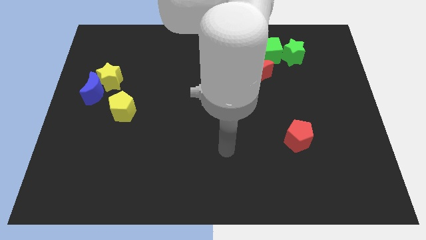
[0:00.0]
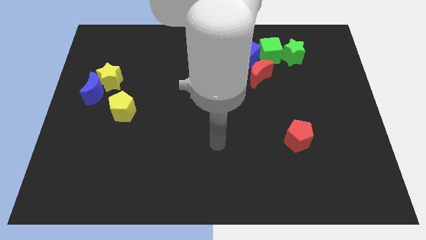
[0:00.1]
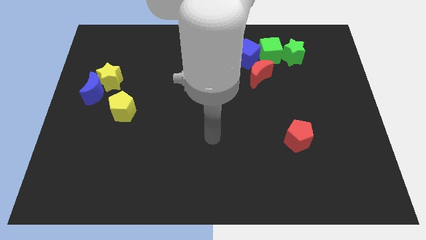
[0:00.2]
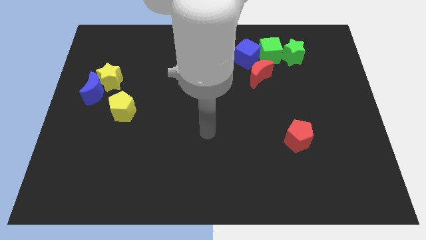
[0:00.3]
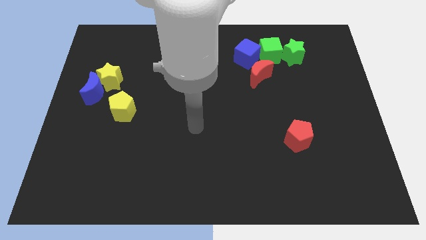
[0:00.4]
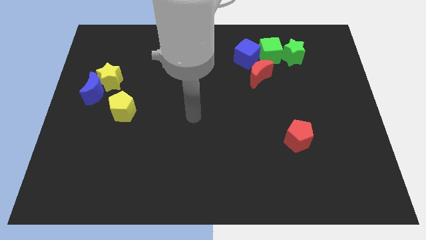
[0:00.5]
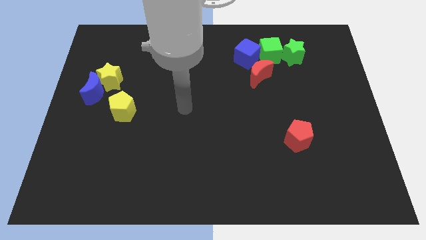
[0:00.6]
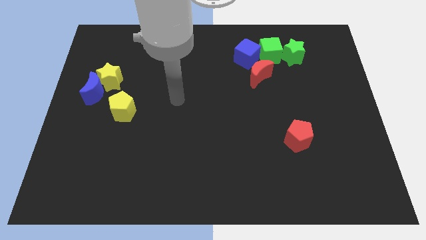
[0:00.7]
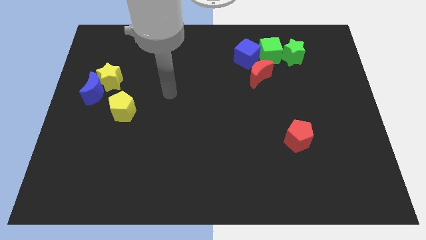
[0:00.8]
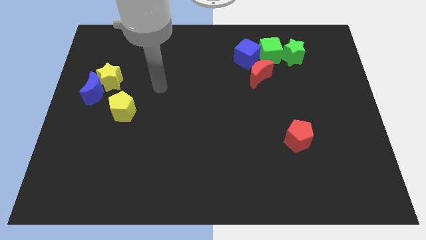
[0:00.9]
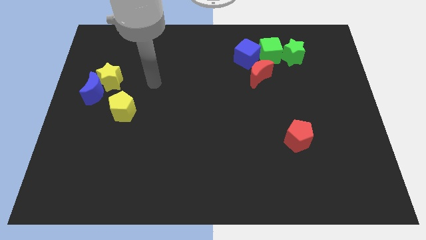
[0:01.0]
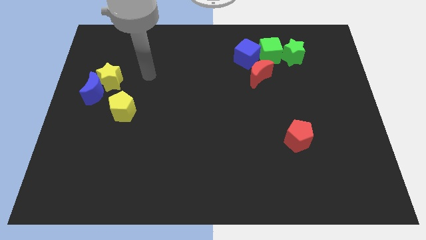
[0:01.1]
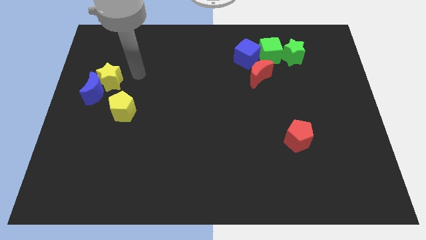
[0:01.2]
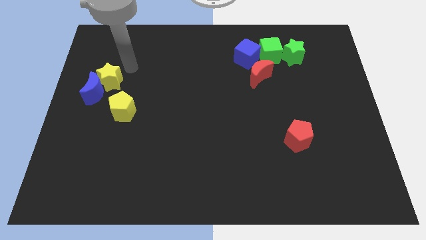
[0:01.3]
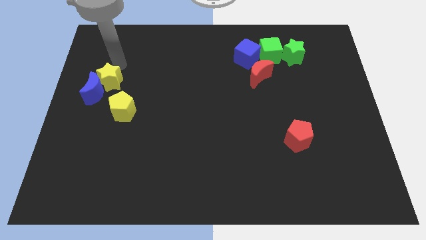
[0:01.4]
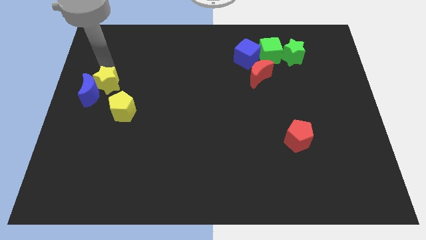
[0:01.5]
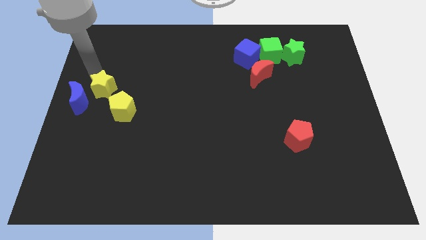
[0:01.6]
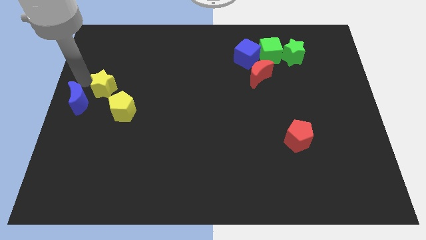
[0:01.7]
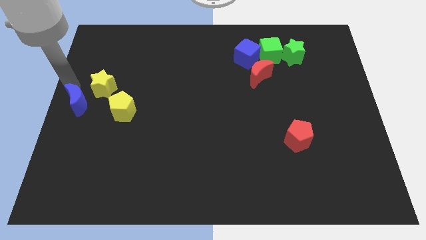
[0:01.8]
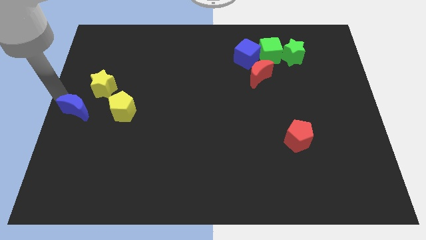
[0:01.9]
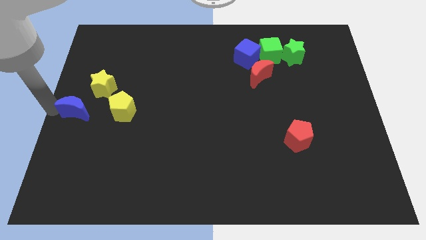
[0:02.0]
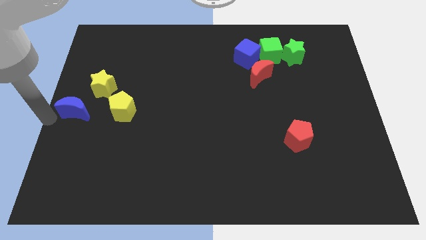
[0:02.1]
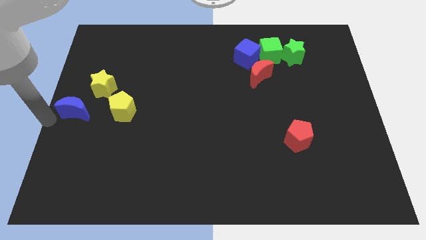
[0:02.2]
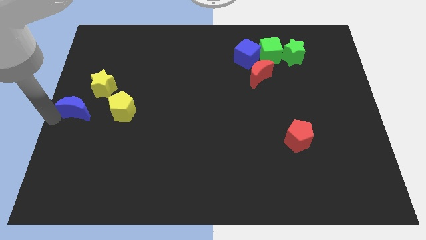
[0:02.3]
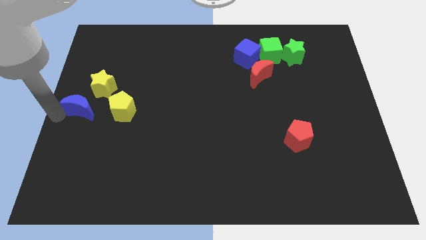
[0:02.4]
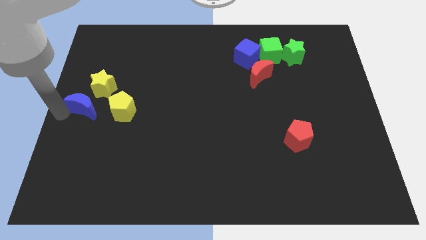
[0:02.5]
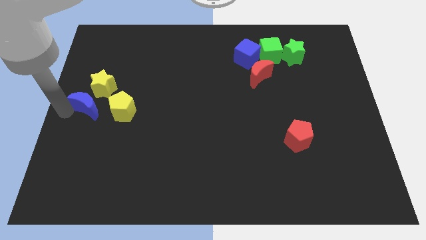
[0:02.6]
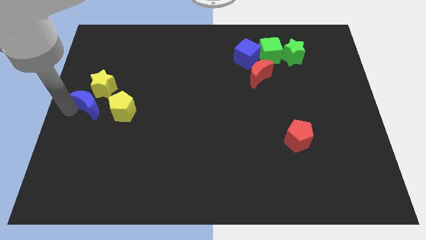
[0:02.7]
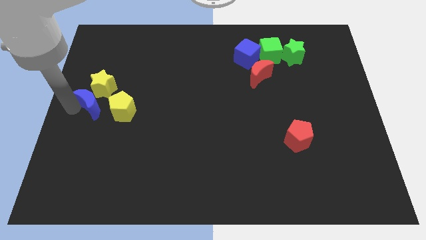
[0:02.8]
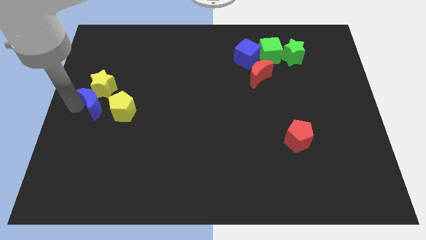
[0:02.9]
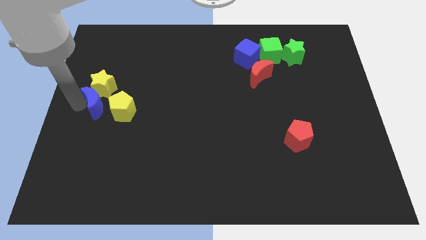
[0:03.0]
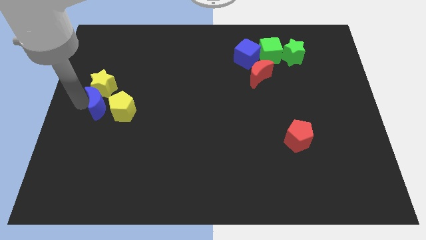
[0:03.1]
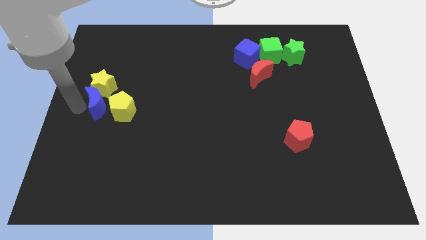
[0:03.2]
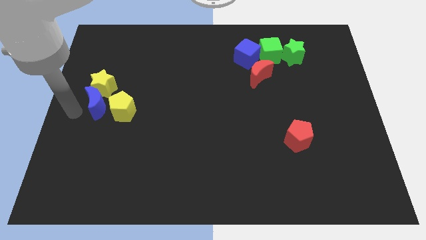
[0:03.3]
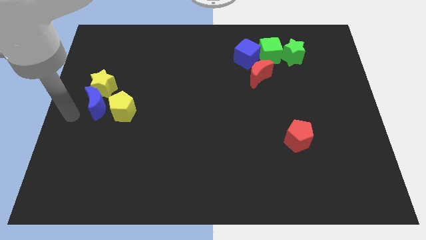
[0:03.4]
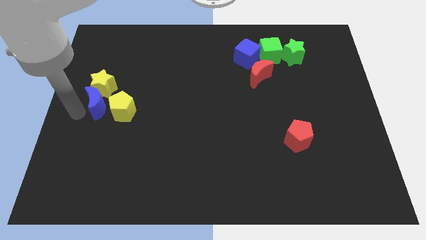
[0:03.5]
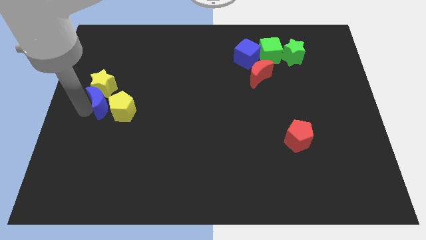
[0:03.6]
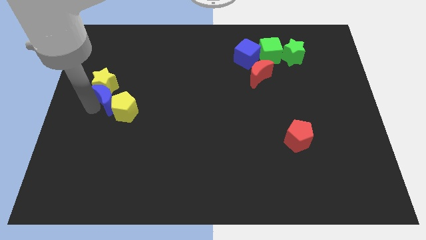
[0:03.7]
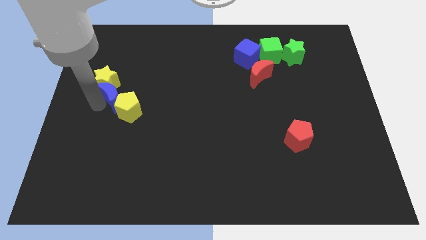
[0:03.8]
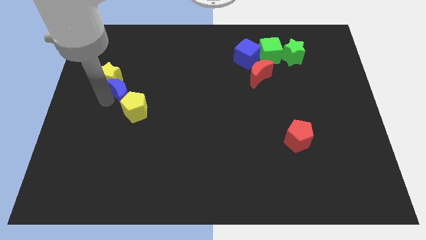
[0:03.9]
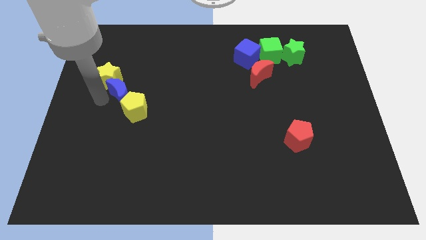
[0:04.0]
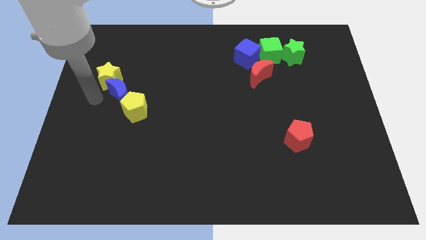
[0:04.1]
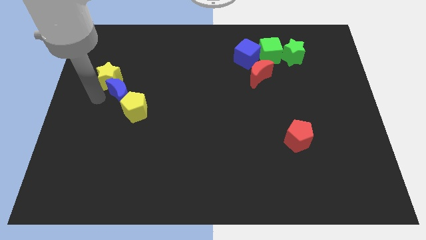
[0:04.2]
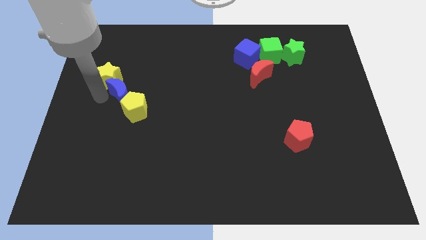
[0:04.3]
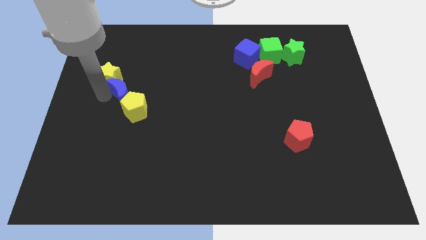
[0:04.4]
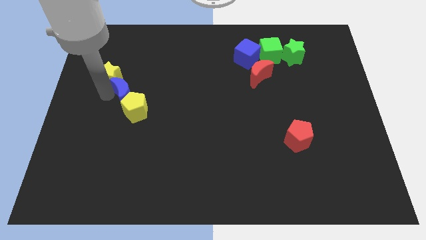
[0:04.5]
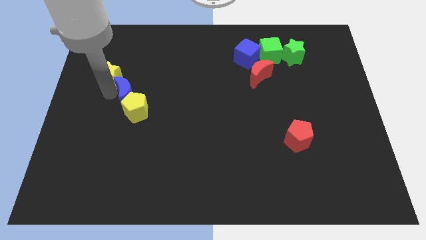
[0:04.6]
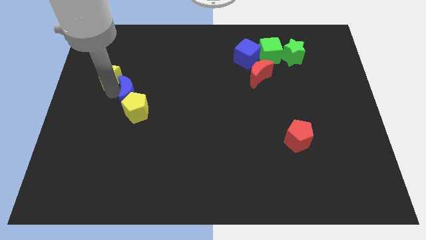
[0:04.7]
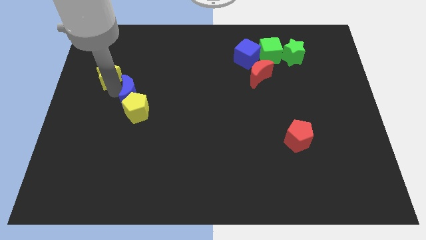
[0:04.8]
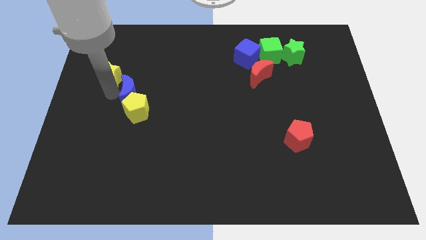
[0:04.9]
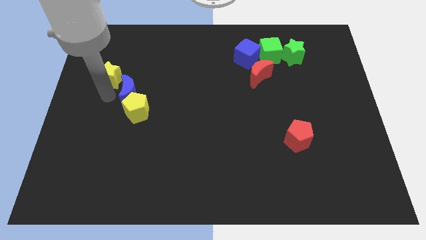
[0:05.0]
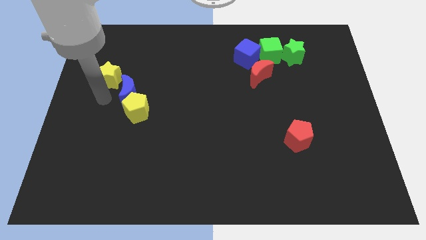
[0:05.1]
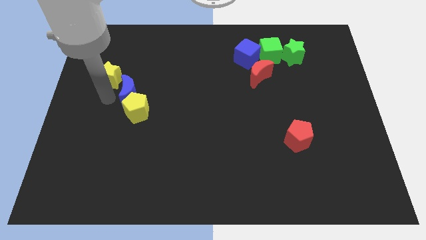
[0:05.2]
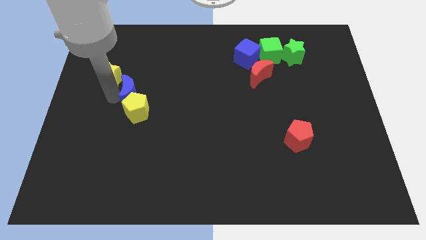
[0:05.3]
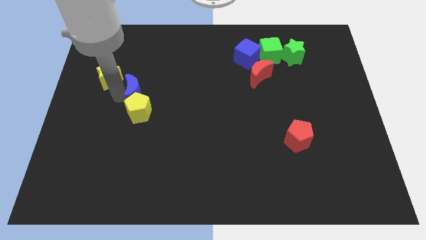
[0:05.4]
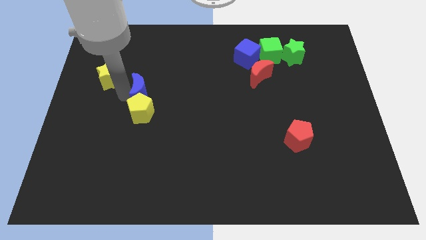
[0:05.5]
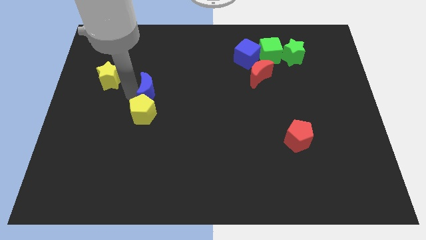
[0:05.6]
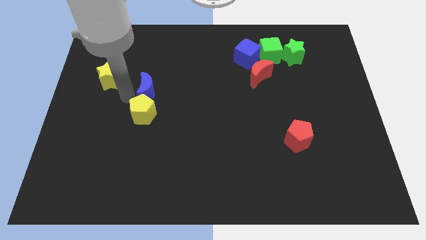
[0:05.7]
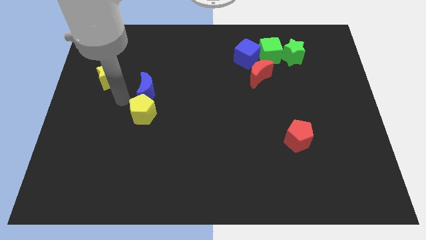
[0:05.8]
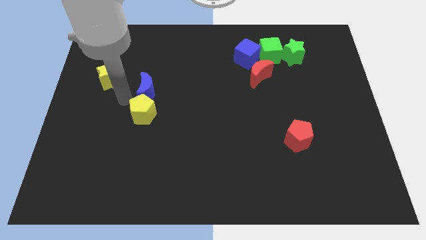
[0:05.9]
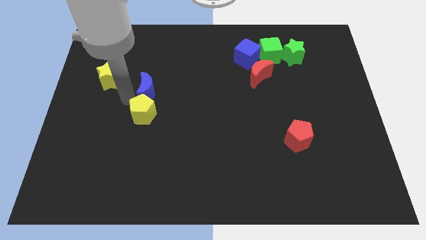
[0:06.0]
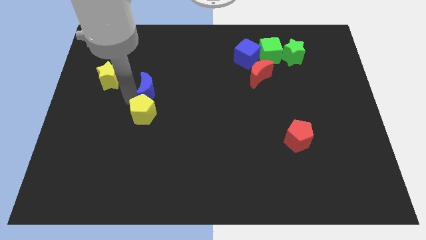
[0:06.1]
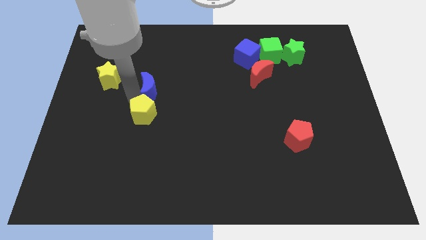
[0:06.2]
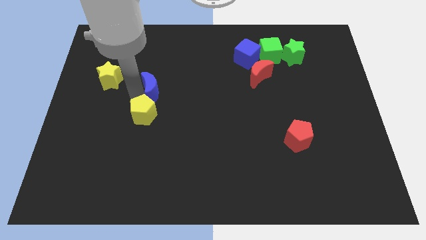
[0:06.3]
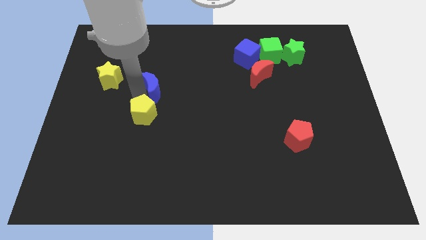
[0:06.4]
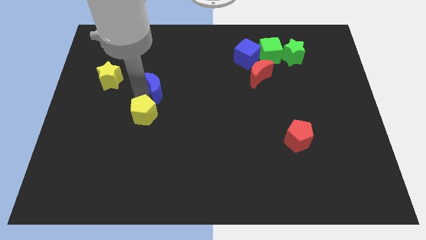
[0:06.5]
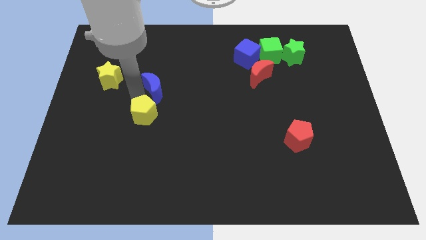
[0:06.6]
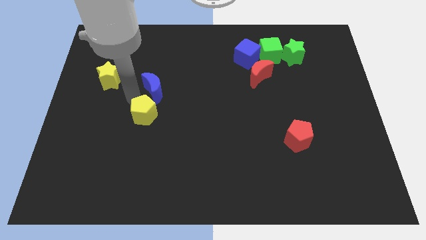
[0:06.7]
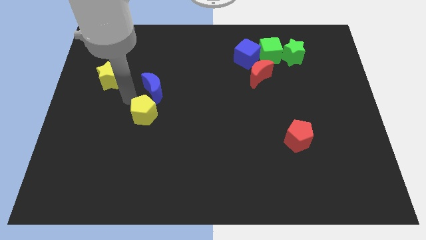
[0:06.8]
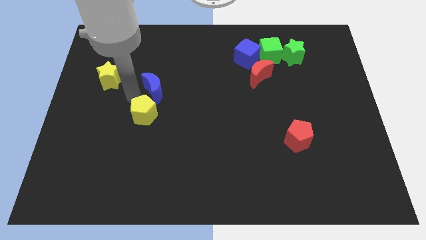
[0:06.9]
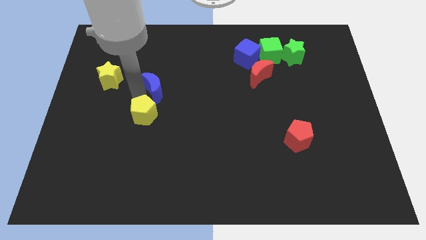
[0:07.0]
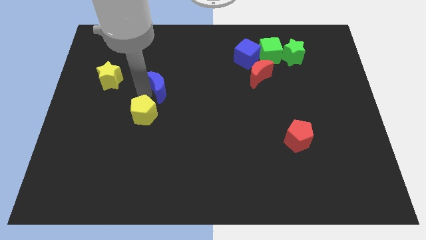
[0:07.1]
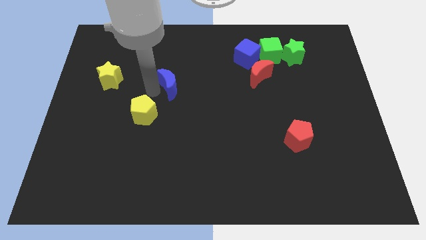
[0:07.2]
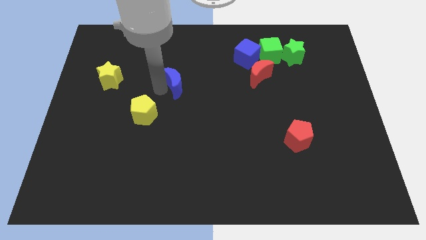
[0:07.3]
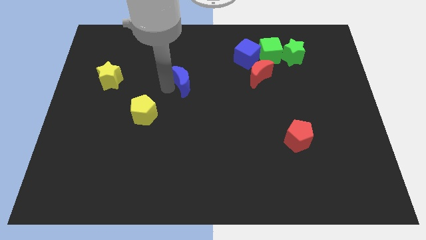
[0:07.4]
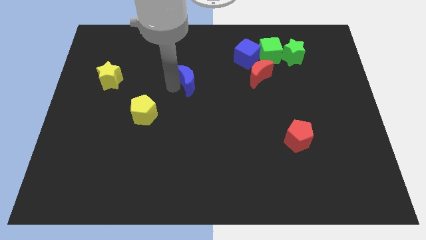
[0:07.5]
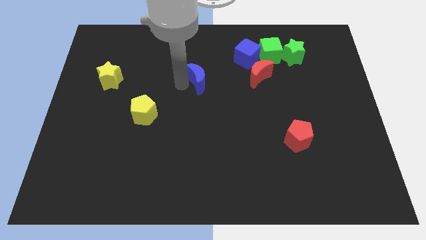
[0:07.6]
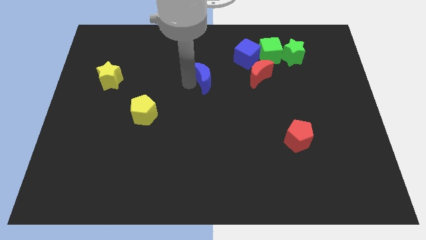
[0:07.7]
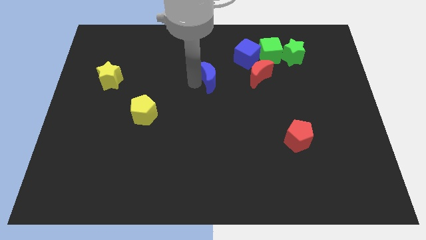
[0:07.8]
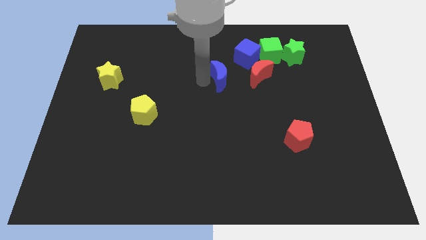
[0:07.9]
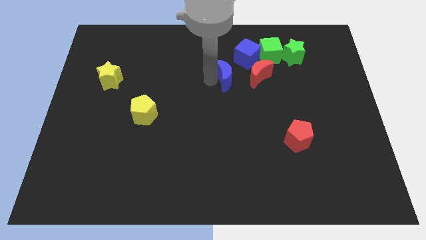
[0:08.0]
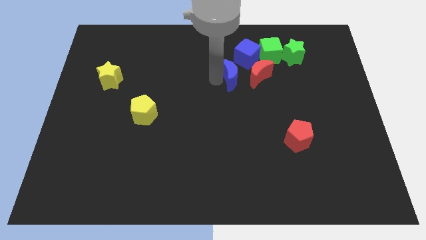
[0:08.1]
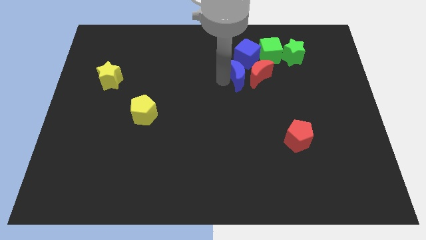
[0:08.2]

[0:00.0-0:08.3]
move the blue moon diagonally down and to the left of the green cube
